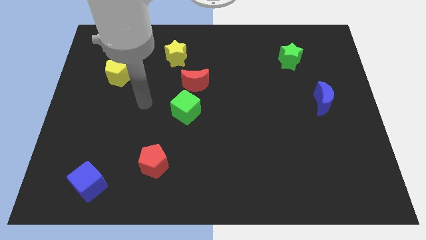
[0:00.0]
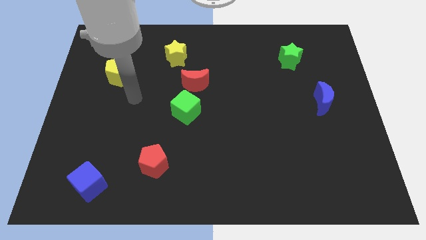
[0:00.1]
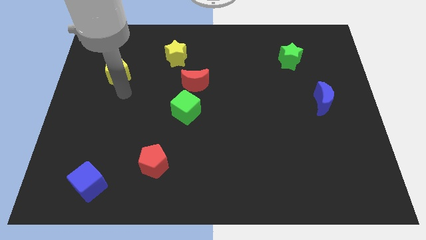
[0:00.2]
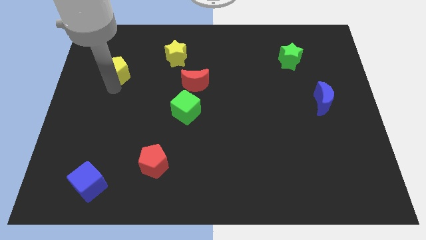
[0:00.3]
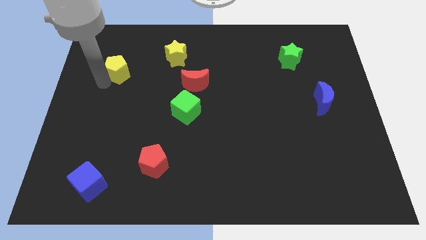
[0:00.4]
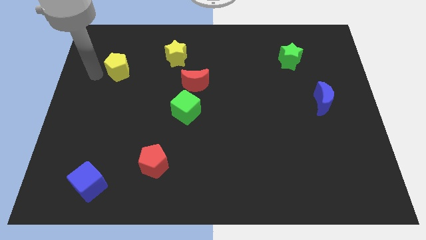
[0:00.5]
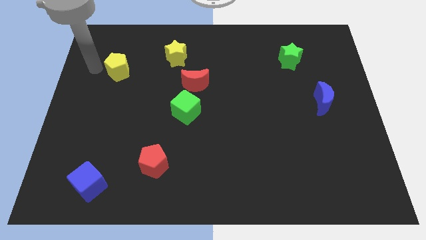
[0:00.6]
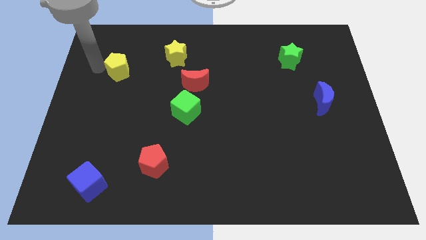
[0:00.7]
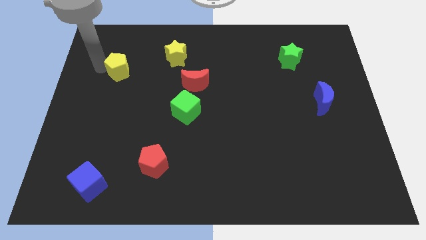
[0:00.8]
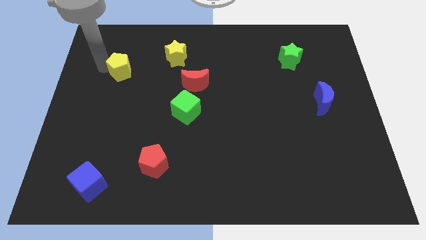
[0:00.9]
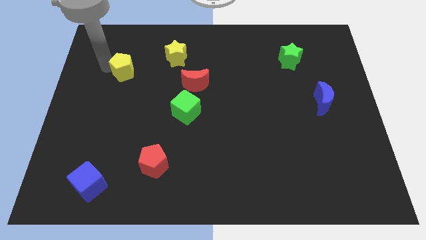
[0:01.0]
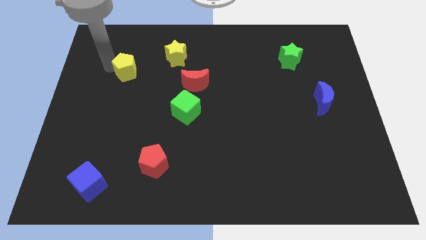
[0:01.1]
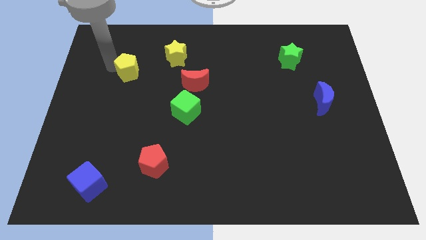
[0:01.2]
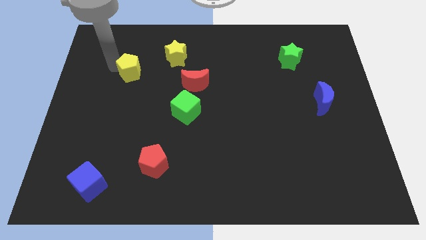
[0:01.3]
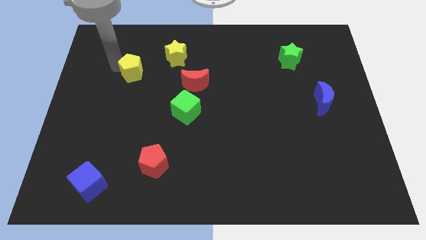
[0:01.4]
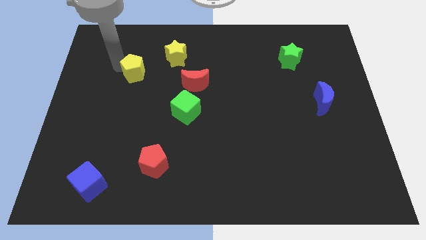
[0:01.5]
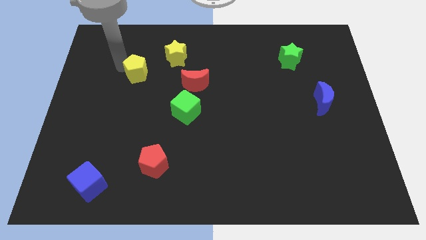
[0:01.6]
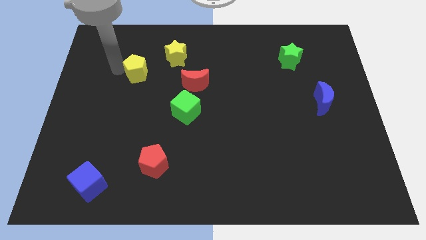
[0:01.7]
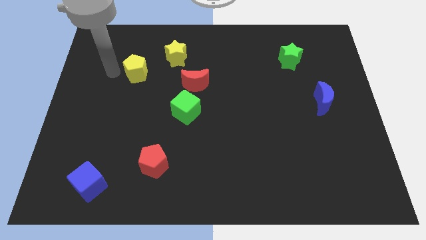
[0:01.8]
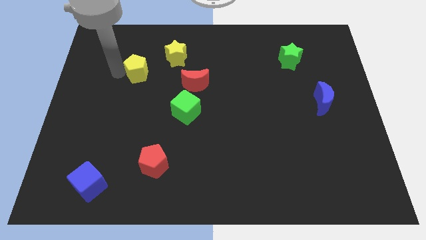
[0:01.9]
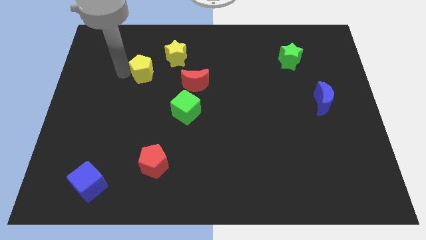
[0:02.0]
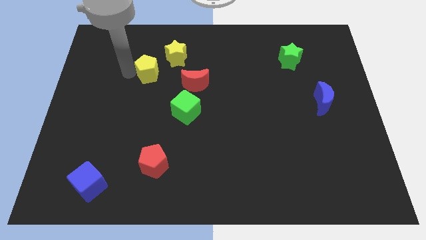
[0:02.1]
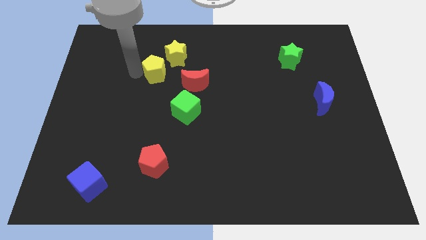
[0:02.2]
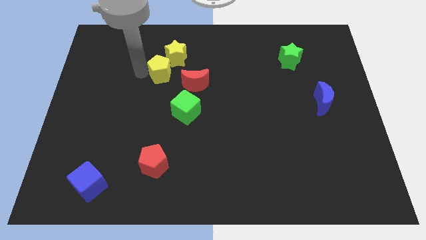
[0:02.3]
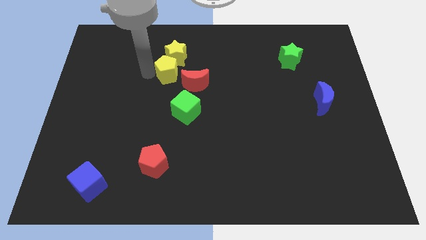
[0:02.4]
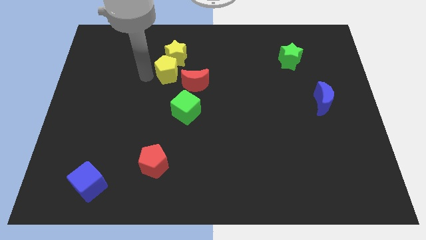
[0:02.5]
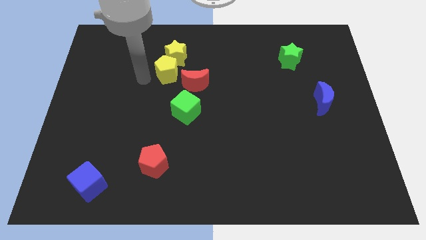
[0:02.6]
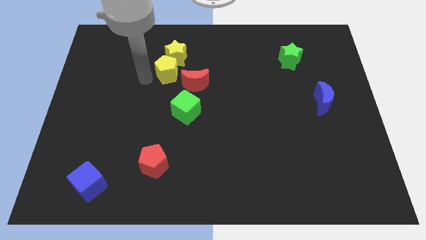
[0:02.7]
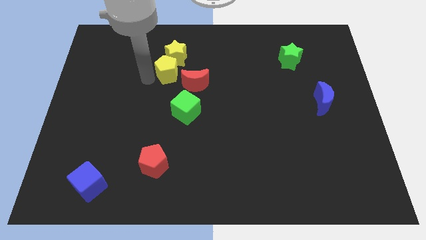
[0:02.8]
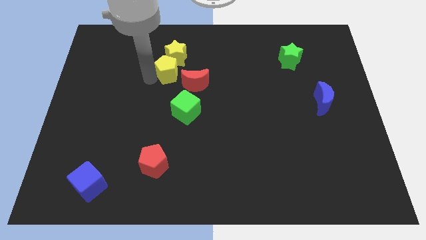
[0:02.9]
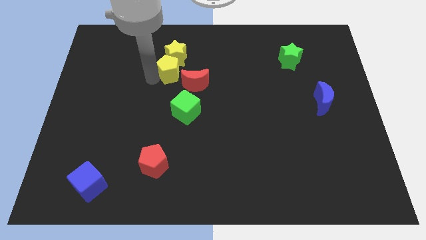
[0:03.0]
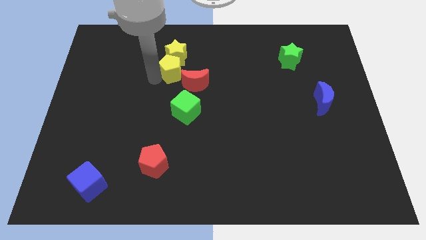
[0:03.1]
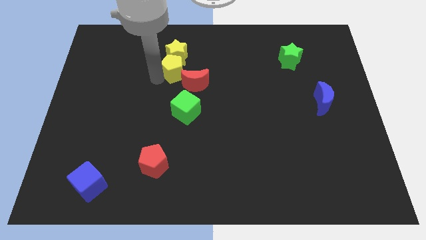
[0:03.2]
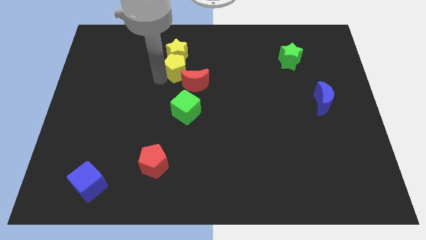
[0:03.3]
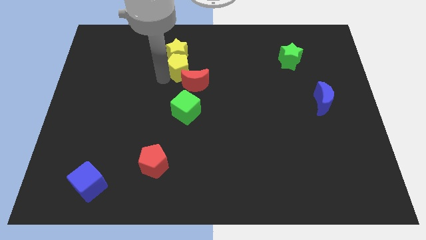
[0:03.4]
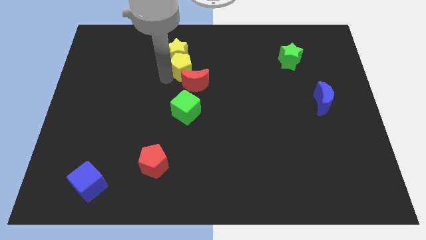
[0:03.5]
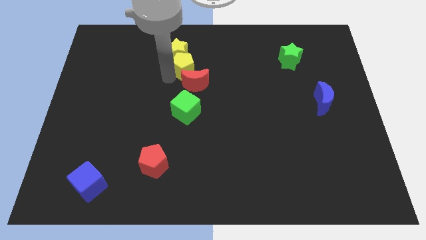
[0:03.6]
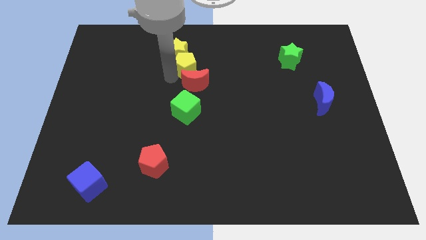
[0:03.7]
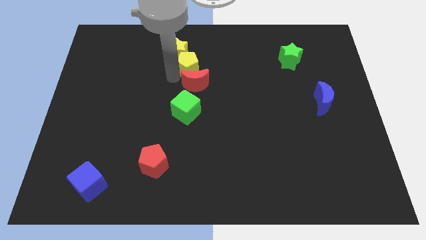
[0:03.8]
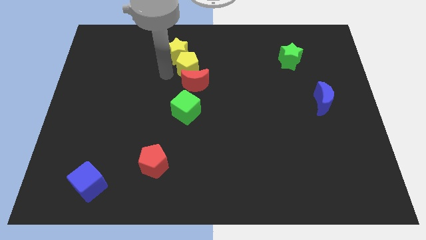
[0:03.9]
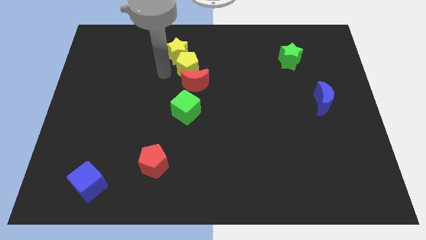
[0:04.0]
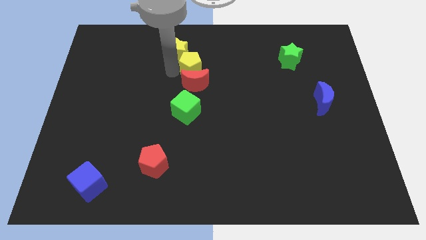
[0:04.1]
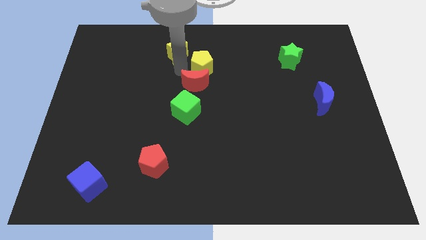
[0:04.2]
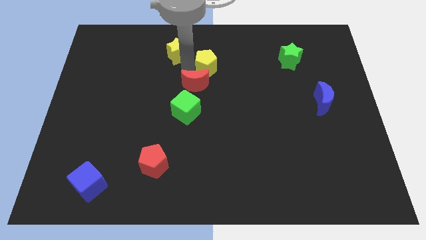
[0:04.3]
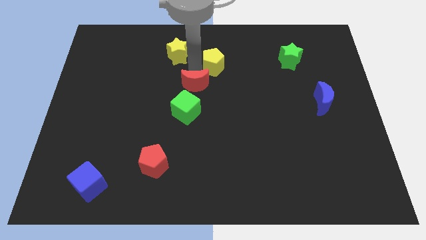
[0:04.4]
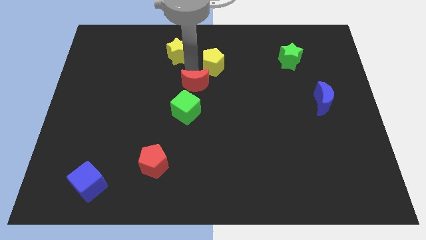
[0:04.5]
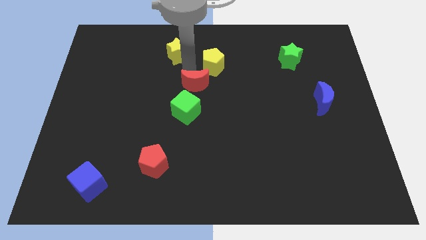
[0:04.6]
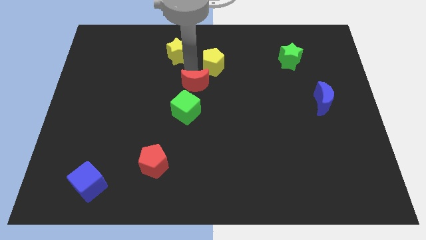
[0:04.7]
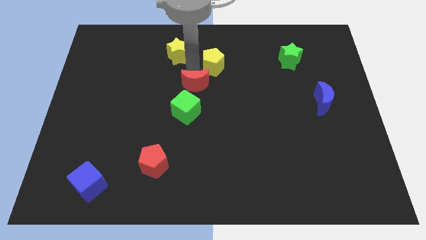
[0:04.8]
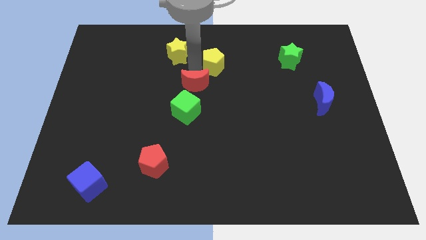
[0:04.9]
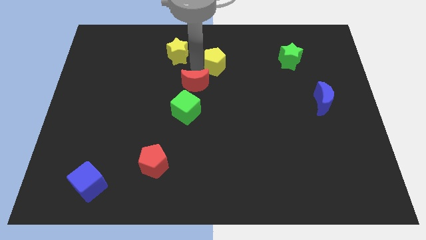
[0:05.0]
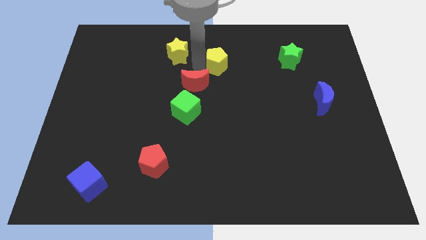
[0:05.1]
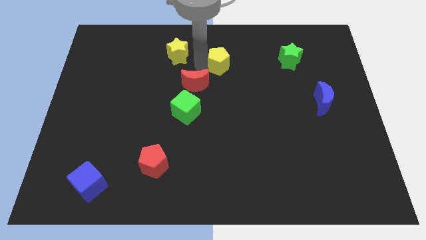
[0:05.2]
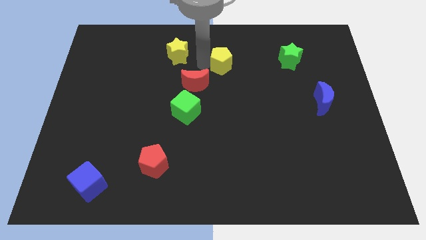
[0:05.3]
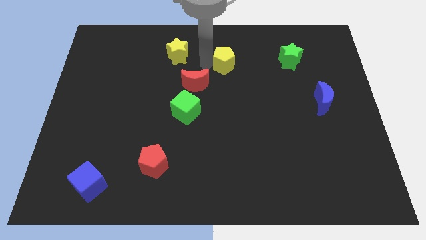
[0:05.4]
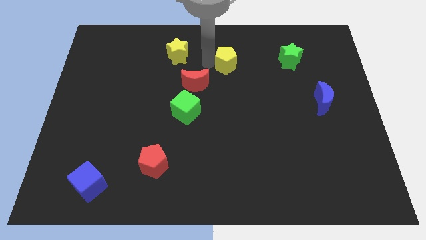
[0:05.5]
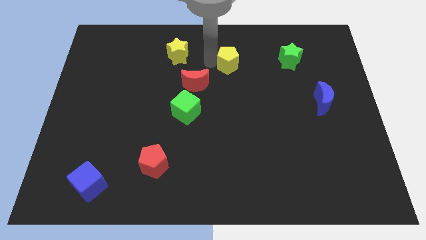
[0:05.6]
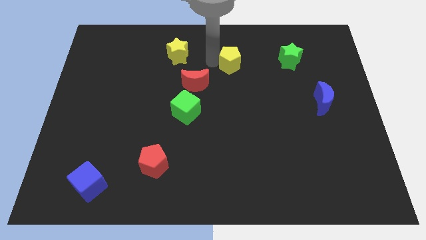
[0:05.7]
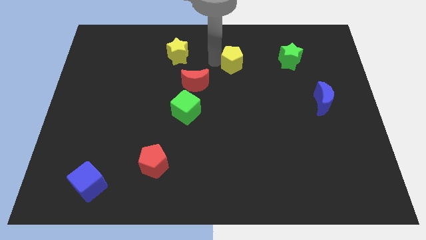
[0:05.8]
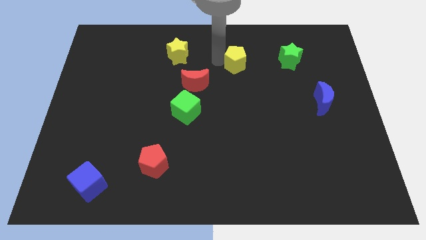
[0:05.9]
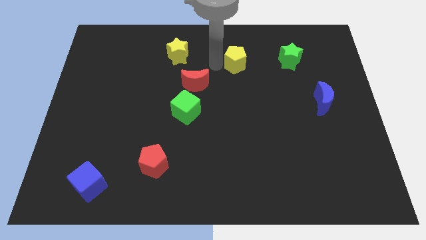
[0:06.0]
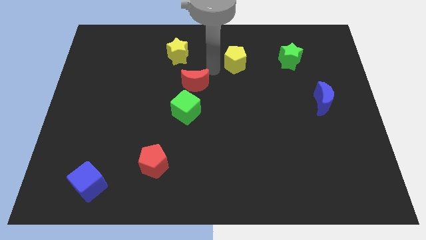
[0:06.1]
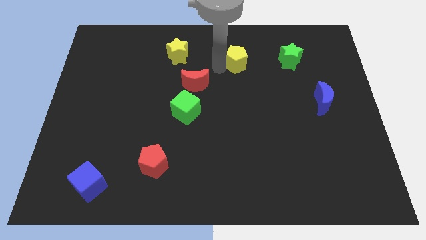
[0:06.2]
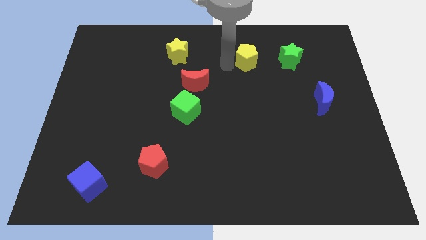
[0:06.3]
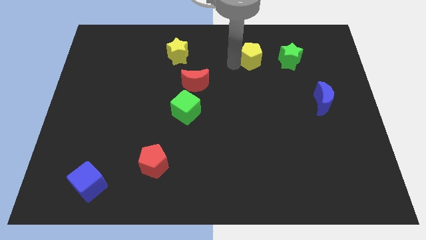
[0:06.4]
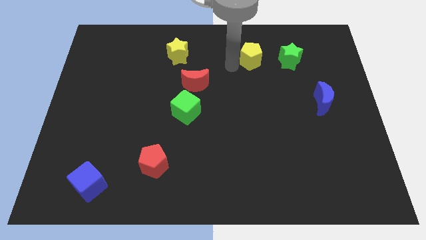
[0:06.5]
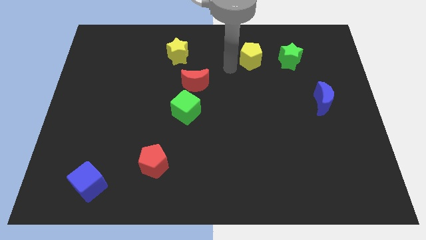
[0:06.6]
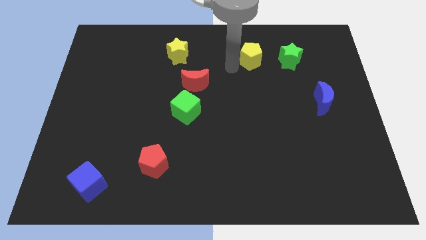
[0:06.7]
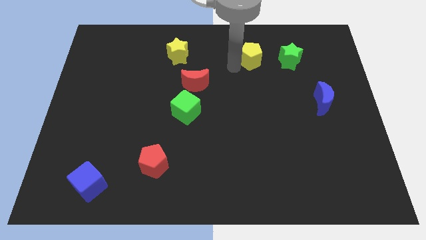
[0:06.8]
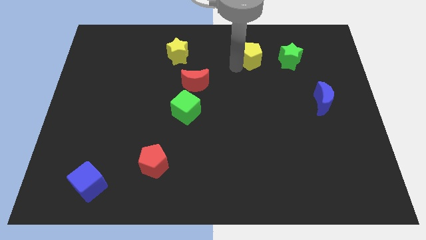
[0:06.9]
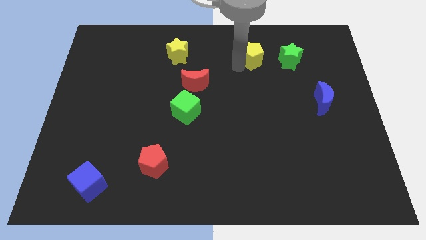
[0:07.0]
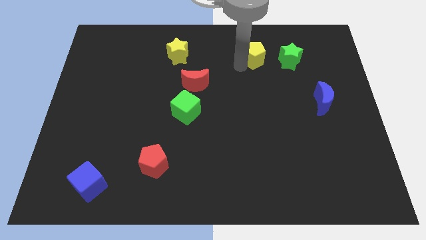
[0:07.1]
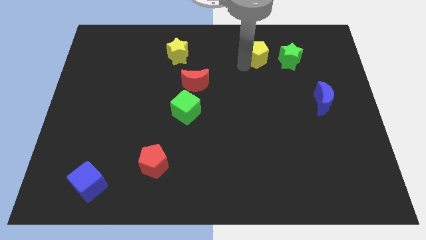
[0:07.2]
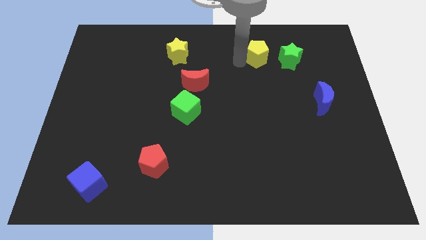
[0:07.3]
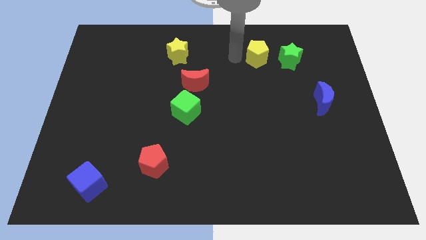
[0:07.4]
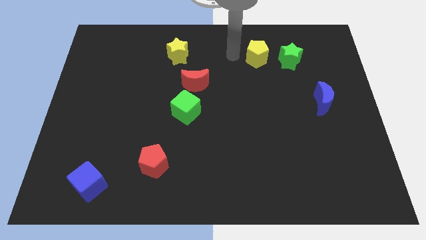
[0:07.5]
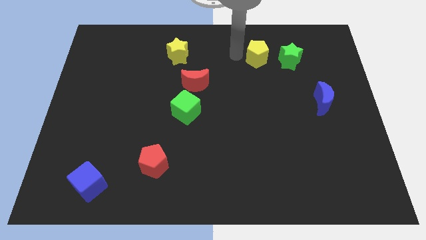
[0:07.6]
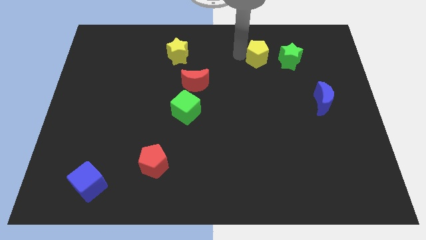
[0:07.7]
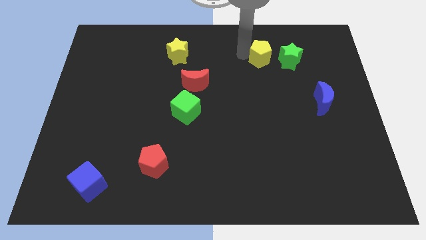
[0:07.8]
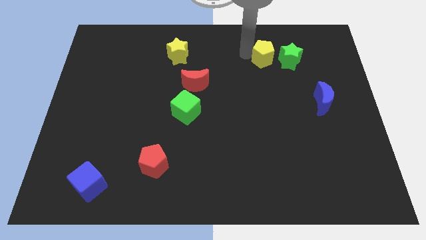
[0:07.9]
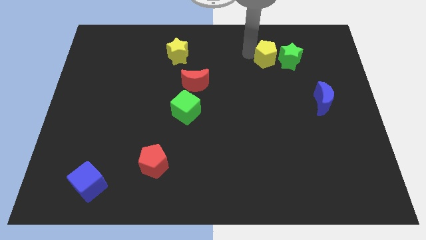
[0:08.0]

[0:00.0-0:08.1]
move the yellow pentagon to the green star
